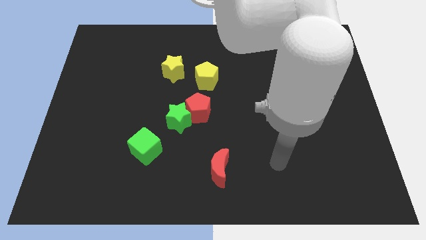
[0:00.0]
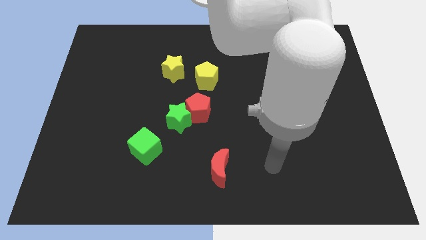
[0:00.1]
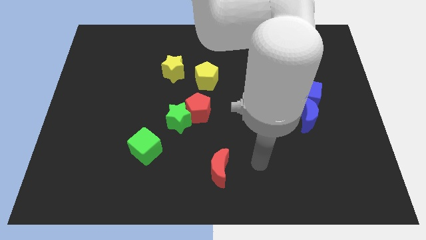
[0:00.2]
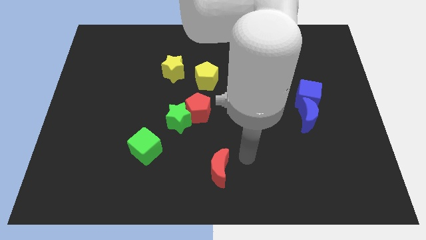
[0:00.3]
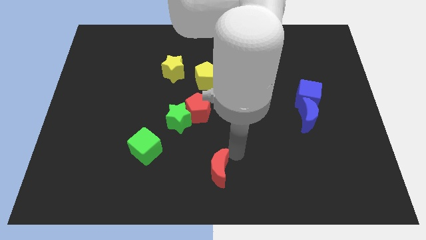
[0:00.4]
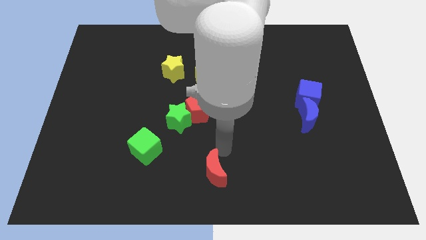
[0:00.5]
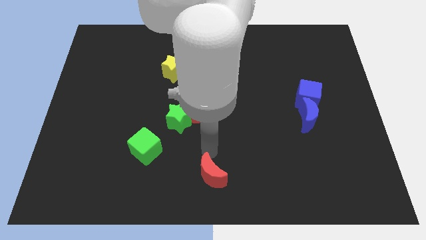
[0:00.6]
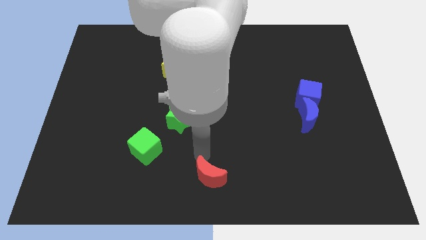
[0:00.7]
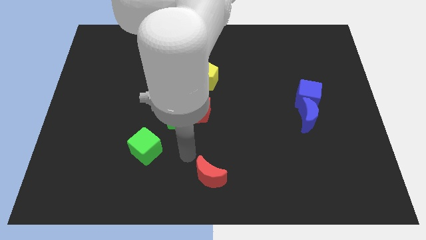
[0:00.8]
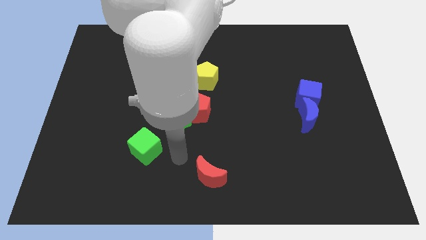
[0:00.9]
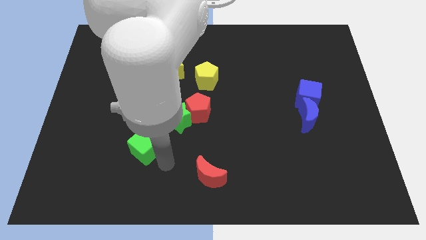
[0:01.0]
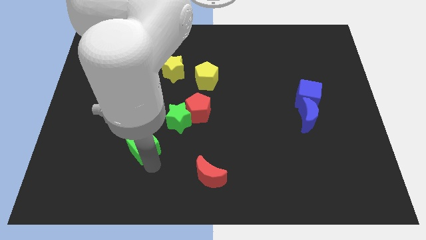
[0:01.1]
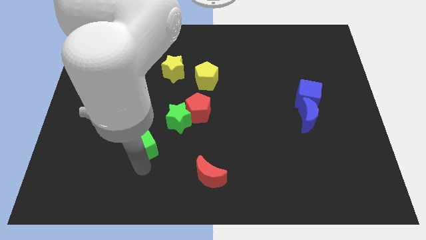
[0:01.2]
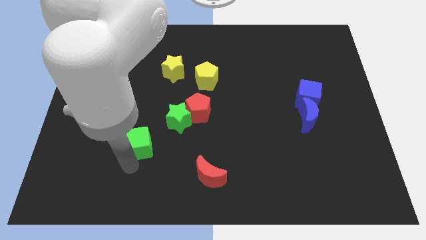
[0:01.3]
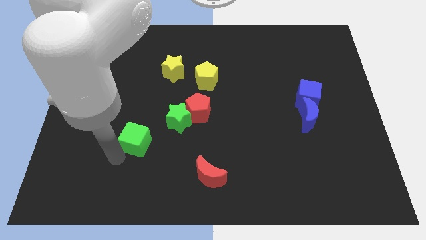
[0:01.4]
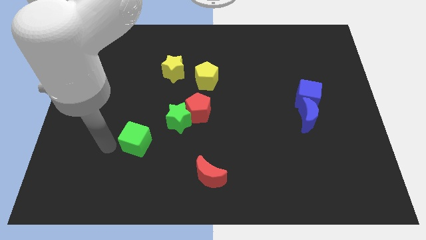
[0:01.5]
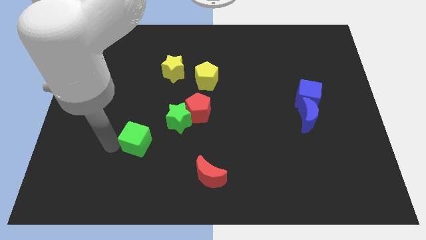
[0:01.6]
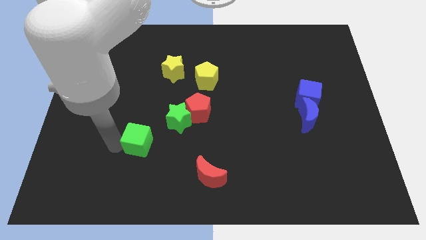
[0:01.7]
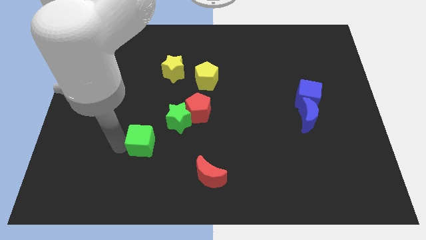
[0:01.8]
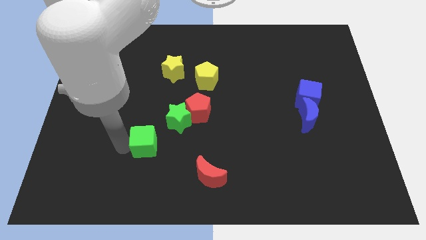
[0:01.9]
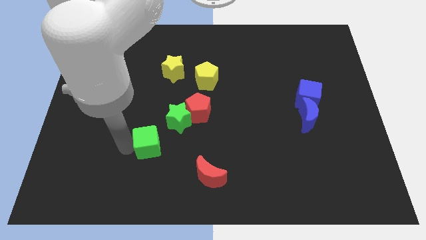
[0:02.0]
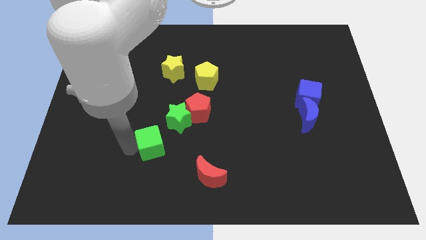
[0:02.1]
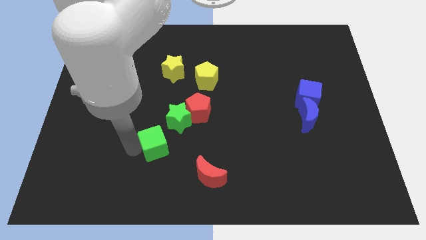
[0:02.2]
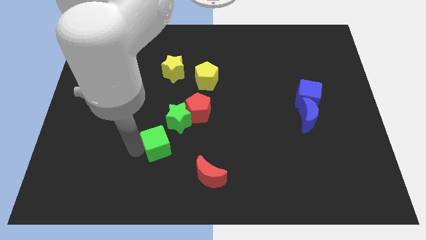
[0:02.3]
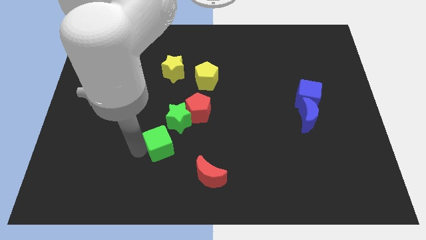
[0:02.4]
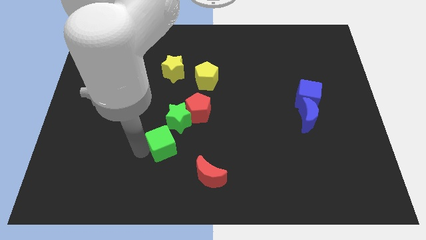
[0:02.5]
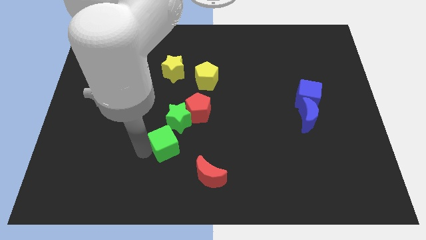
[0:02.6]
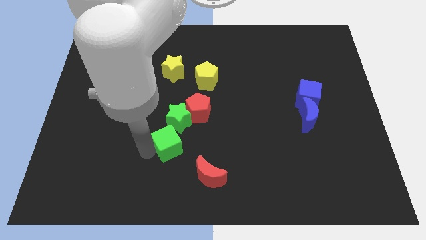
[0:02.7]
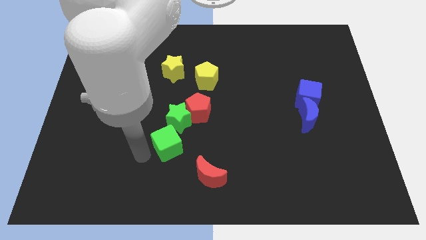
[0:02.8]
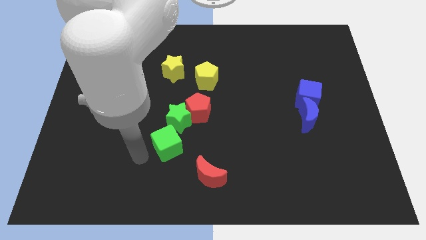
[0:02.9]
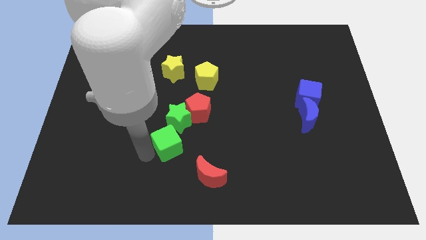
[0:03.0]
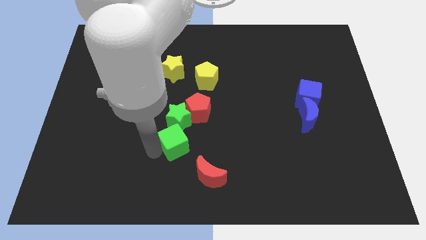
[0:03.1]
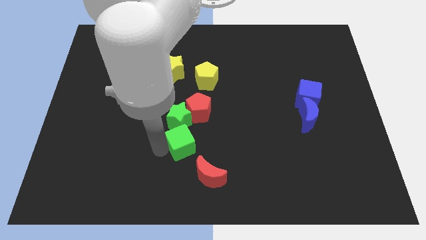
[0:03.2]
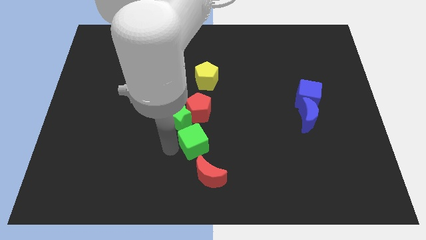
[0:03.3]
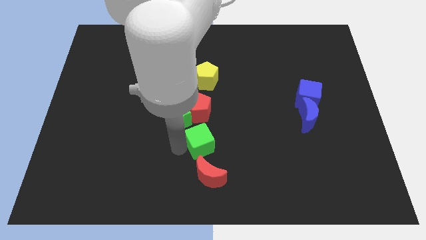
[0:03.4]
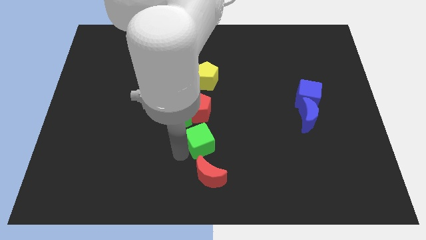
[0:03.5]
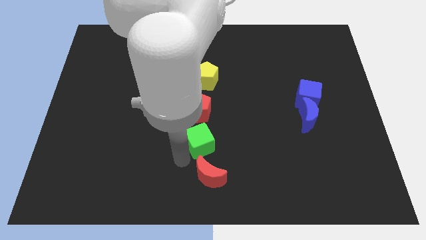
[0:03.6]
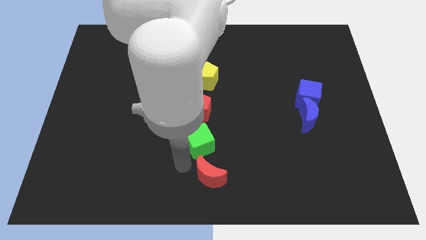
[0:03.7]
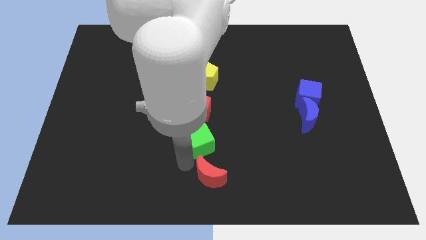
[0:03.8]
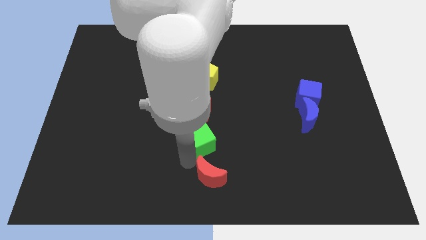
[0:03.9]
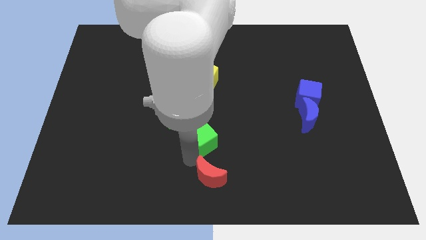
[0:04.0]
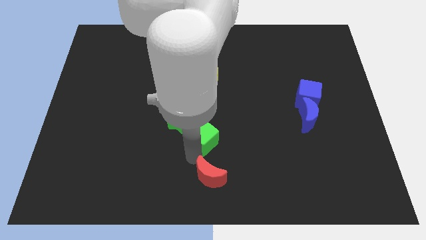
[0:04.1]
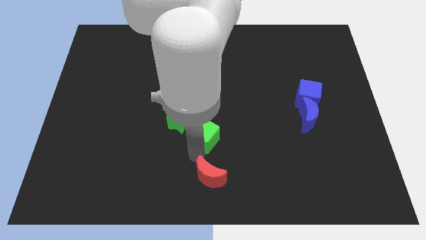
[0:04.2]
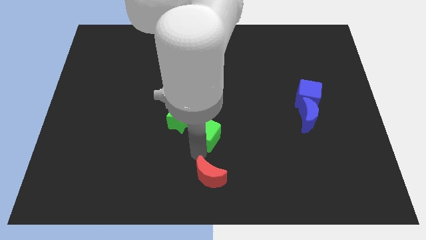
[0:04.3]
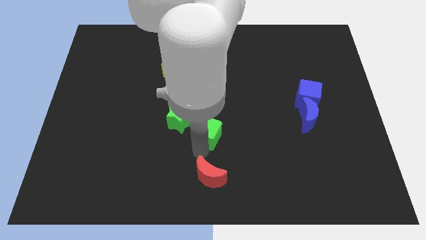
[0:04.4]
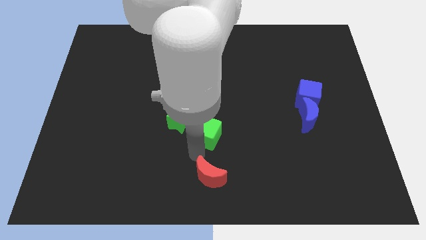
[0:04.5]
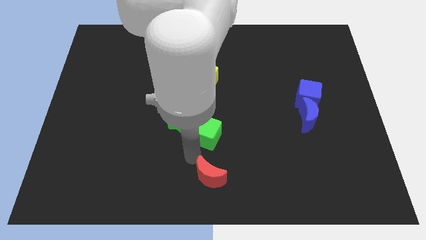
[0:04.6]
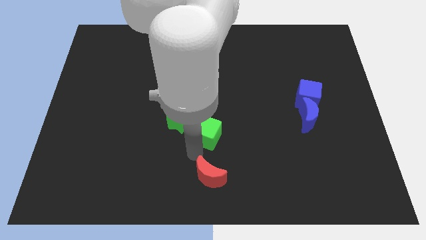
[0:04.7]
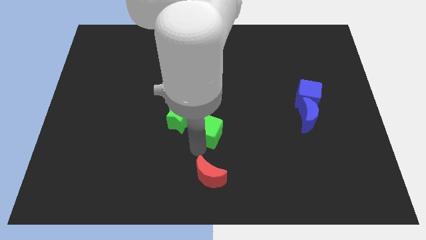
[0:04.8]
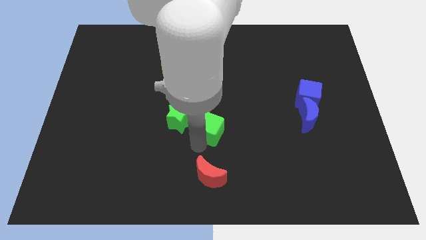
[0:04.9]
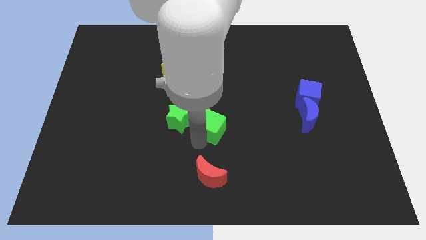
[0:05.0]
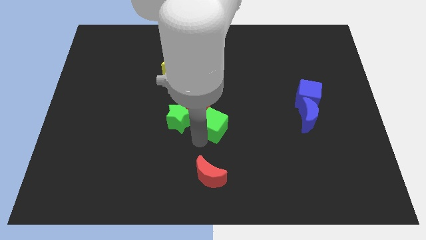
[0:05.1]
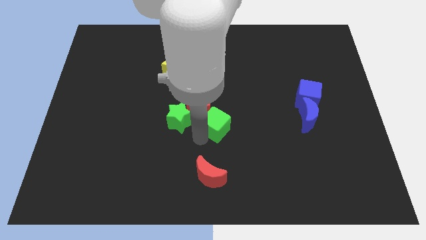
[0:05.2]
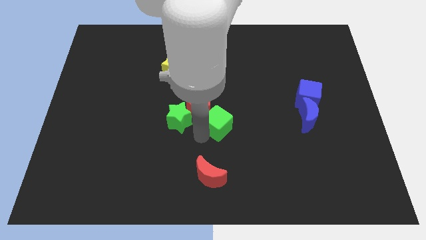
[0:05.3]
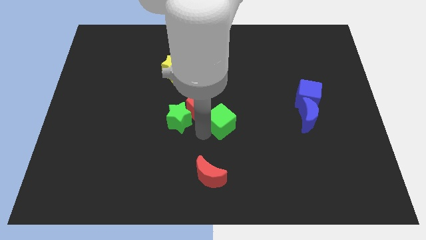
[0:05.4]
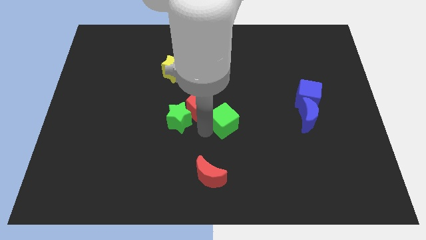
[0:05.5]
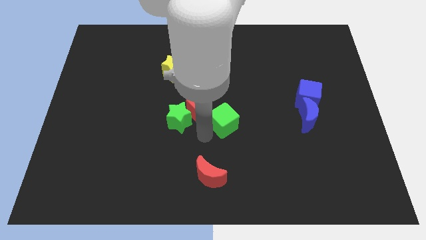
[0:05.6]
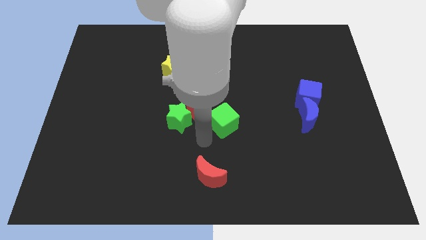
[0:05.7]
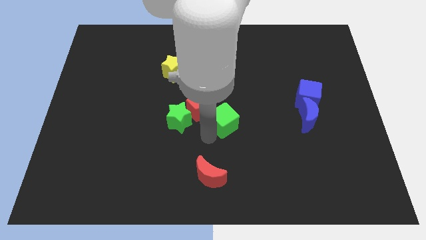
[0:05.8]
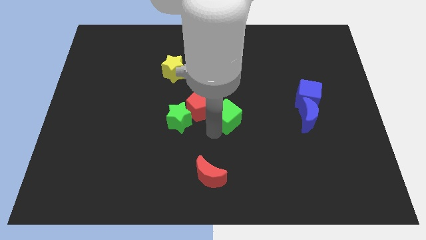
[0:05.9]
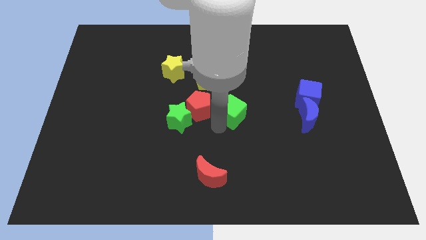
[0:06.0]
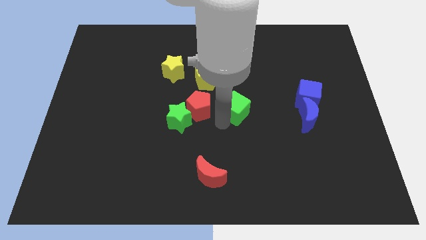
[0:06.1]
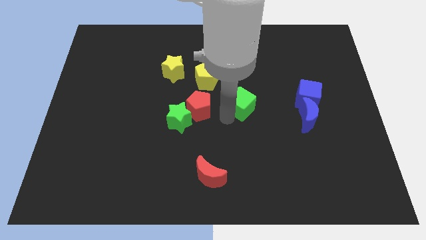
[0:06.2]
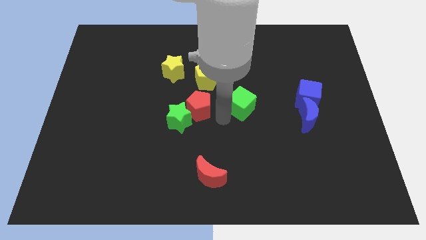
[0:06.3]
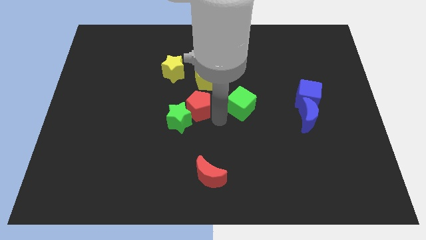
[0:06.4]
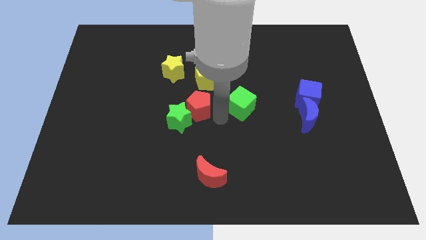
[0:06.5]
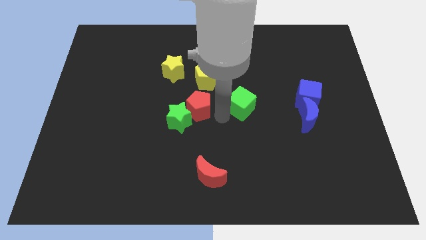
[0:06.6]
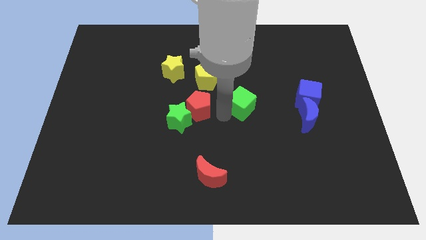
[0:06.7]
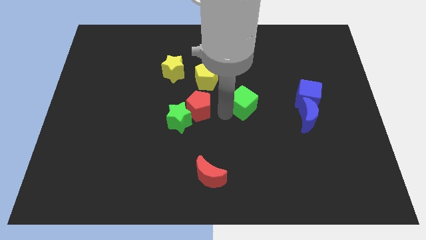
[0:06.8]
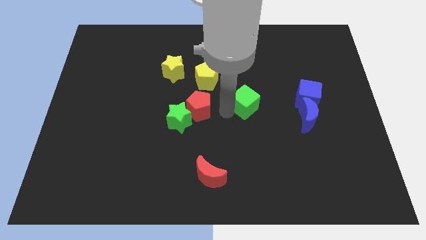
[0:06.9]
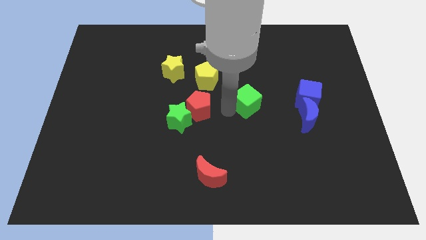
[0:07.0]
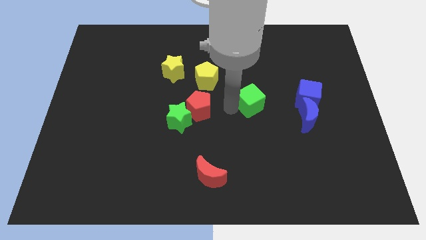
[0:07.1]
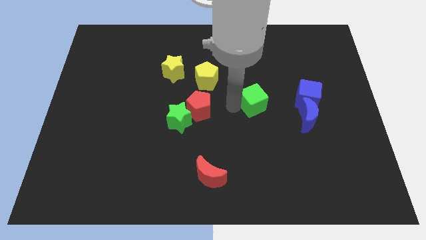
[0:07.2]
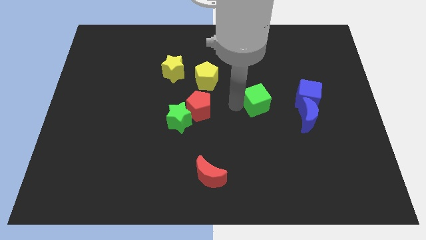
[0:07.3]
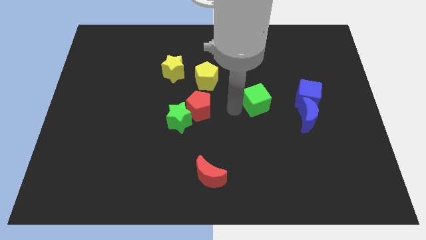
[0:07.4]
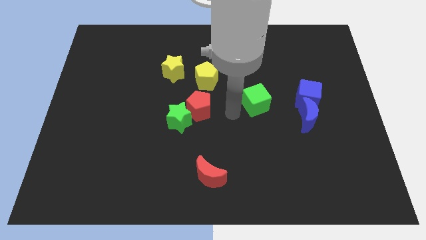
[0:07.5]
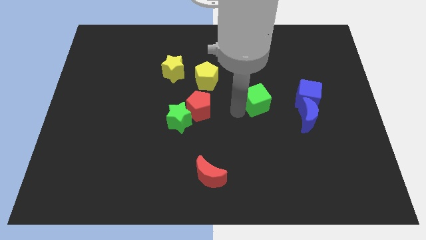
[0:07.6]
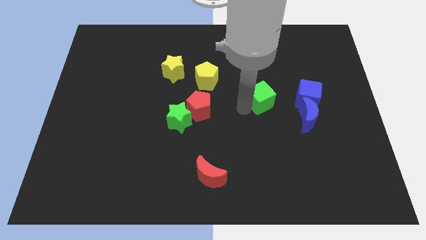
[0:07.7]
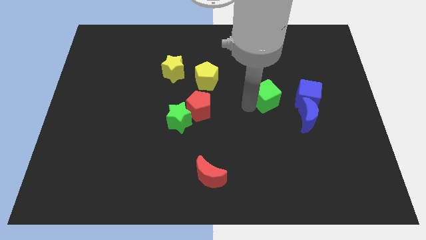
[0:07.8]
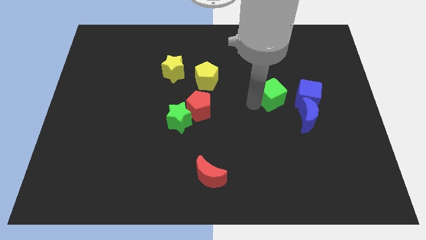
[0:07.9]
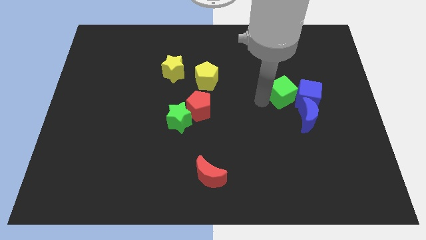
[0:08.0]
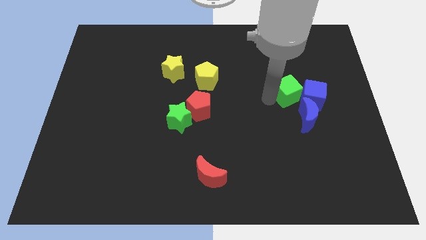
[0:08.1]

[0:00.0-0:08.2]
move the green cube to the top of the blue moon

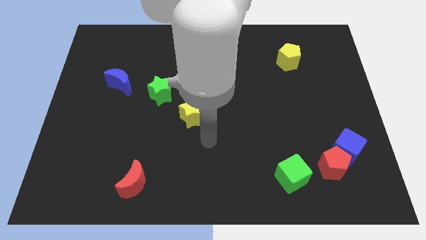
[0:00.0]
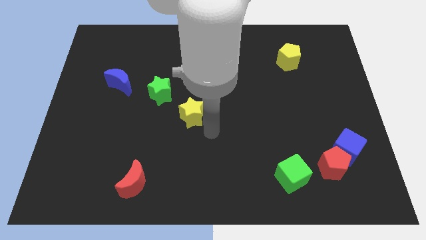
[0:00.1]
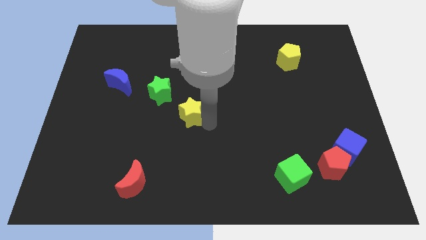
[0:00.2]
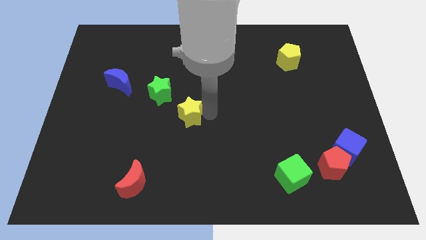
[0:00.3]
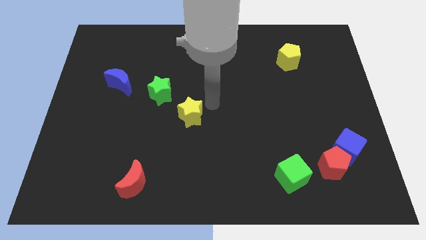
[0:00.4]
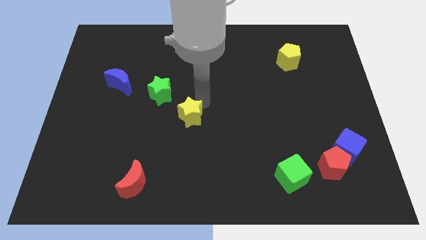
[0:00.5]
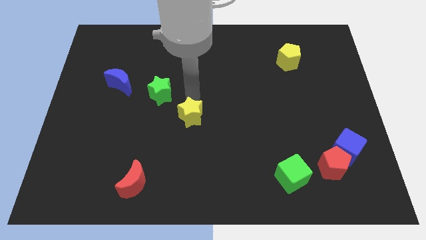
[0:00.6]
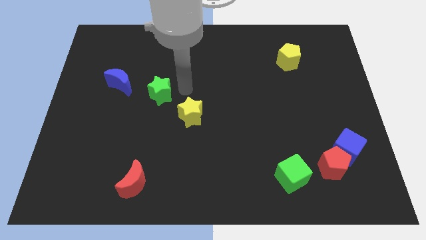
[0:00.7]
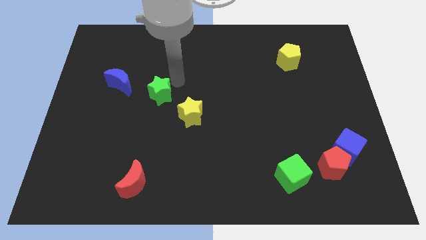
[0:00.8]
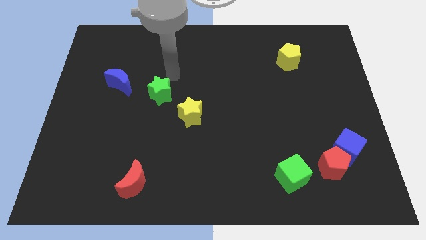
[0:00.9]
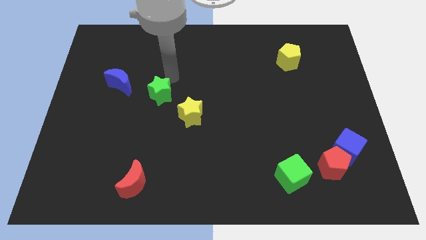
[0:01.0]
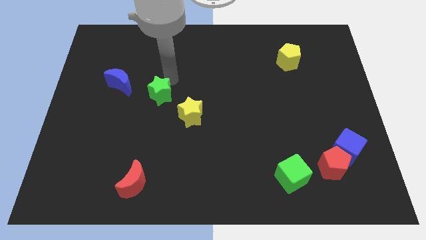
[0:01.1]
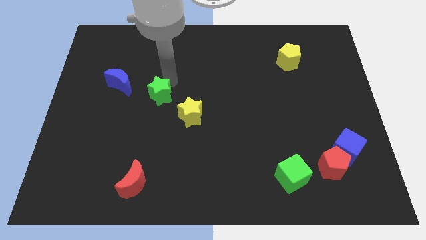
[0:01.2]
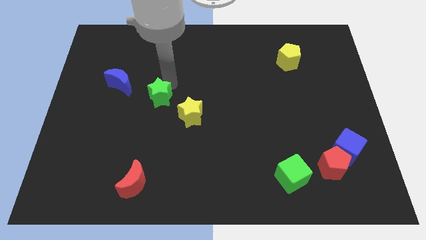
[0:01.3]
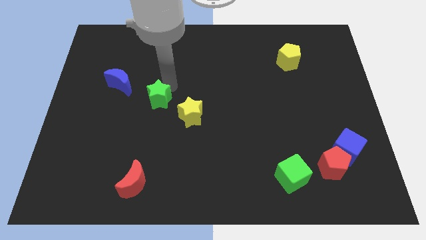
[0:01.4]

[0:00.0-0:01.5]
move the green star to the left of the yellow star
